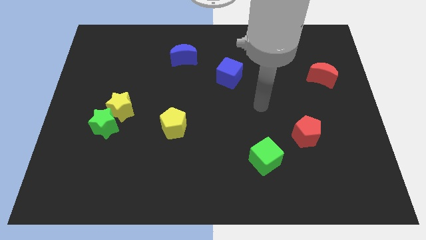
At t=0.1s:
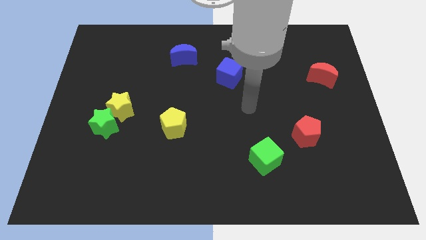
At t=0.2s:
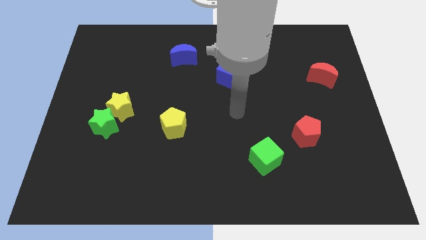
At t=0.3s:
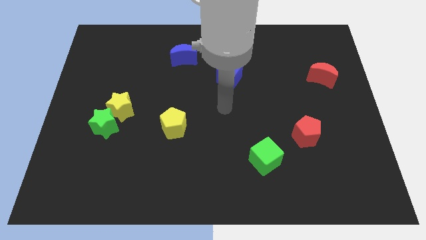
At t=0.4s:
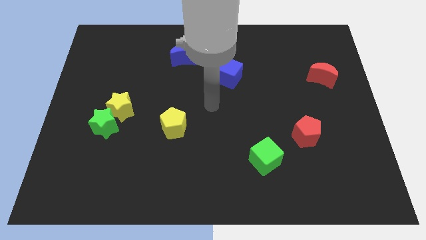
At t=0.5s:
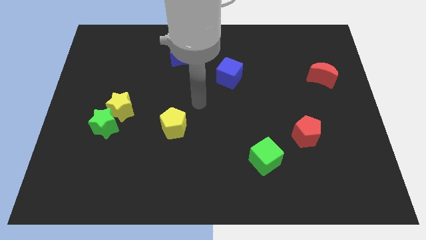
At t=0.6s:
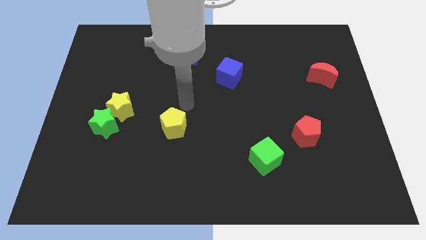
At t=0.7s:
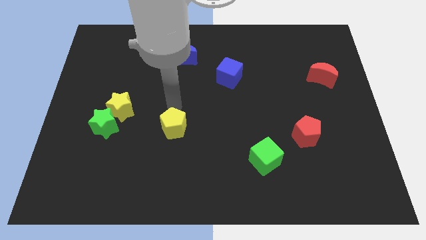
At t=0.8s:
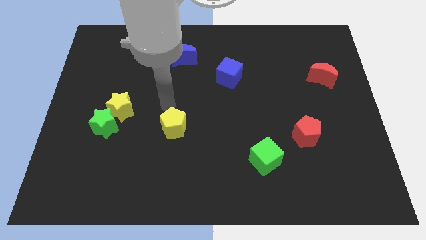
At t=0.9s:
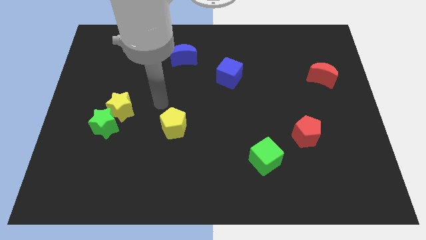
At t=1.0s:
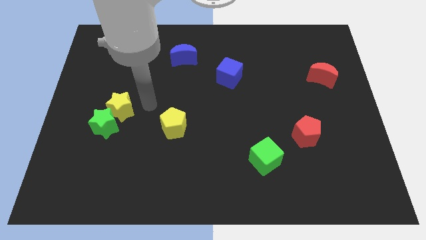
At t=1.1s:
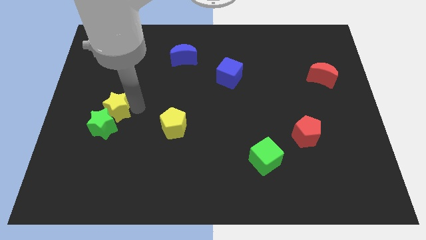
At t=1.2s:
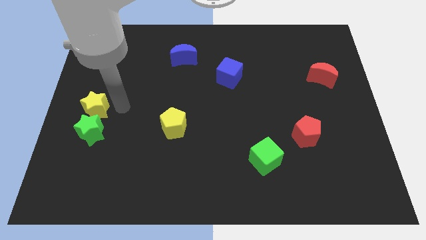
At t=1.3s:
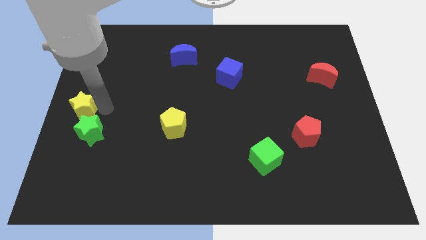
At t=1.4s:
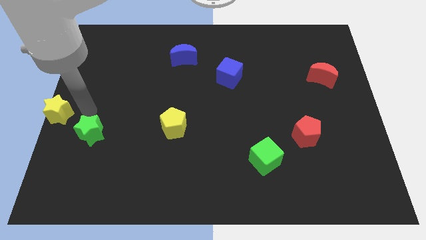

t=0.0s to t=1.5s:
pull the green star apart from the yellow star

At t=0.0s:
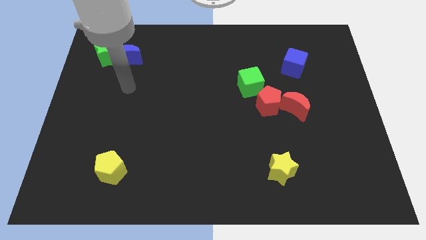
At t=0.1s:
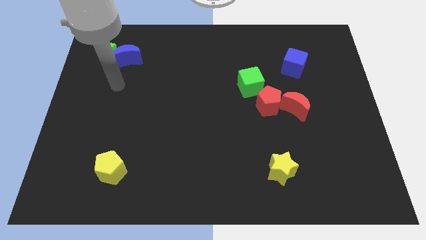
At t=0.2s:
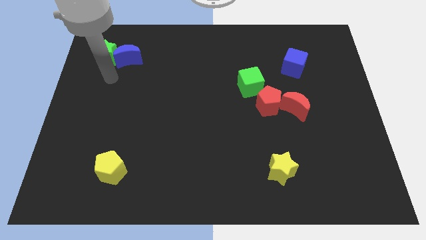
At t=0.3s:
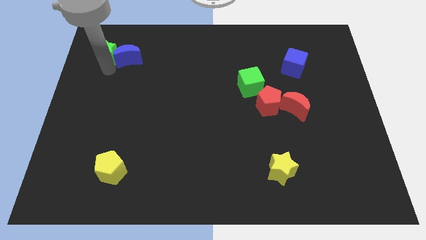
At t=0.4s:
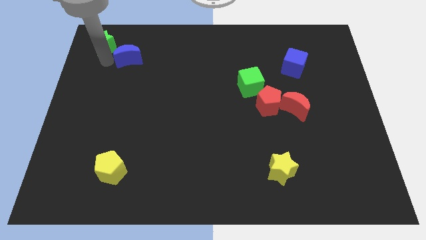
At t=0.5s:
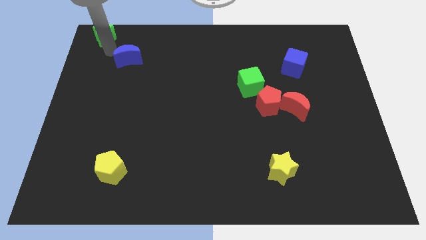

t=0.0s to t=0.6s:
pull the blue moon apart from the green star

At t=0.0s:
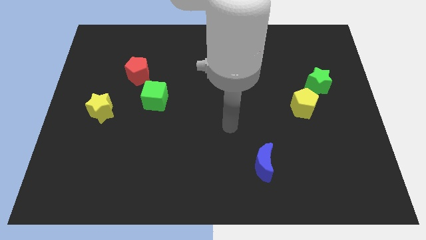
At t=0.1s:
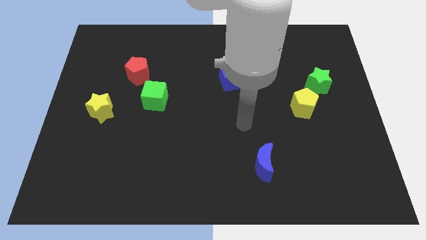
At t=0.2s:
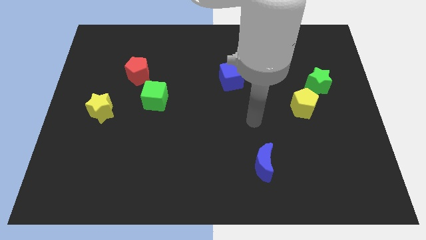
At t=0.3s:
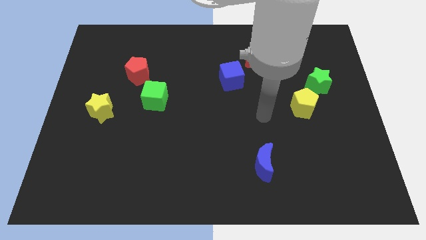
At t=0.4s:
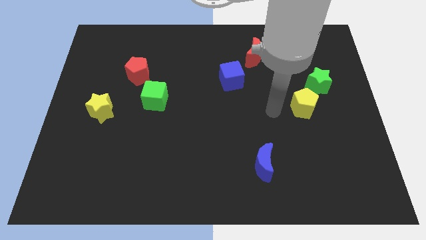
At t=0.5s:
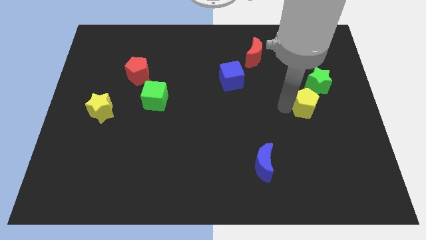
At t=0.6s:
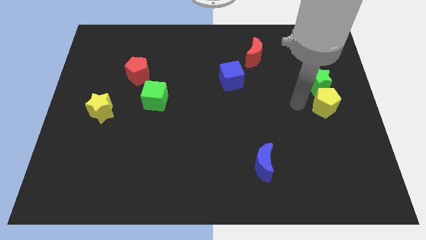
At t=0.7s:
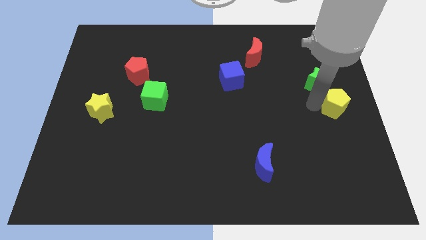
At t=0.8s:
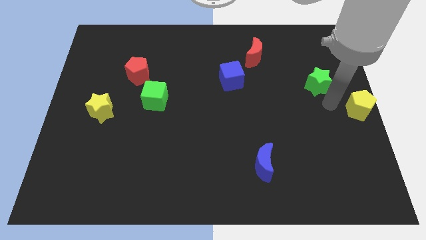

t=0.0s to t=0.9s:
separate the green star from the yellow pentagon

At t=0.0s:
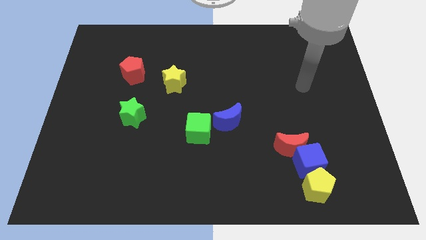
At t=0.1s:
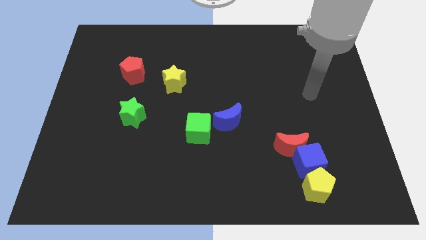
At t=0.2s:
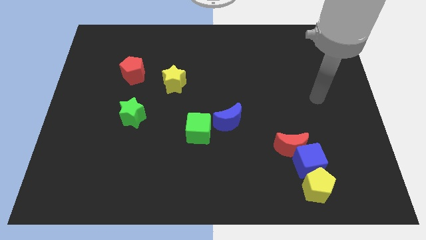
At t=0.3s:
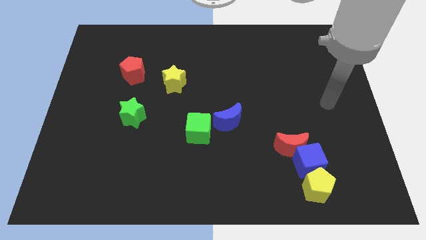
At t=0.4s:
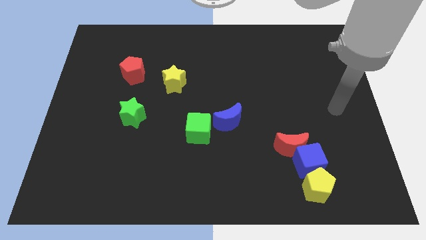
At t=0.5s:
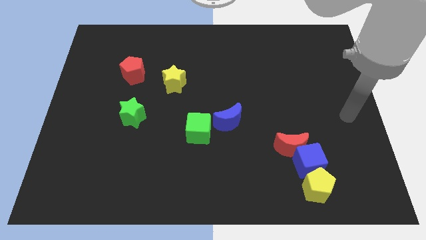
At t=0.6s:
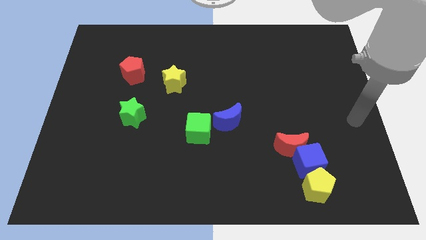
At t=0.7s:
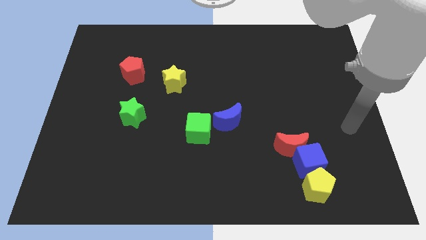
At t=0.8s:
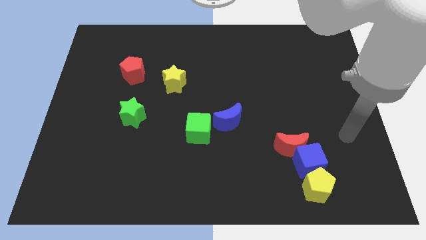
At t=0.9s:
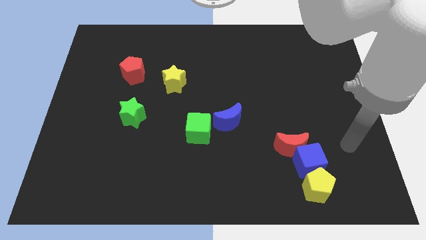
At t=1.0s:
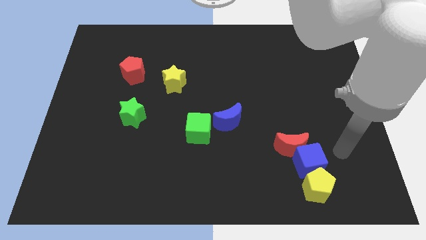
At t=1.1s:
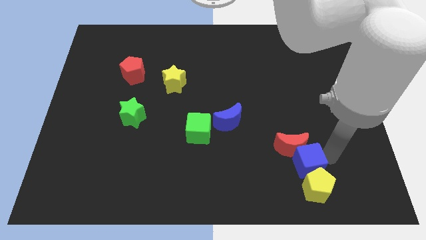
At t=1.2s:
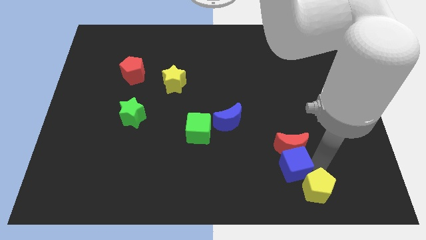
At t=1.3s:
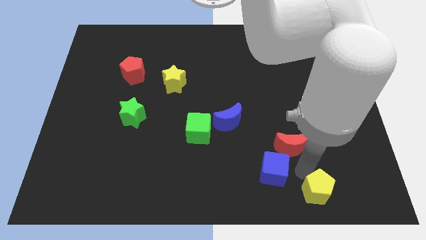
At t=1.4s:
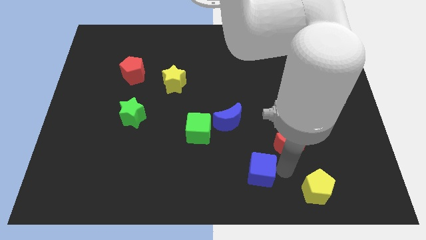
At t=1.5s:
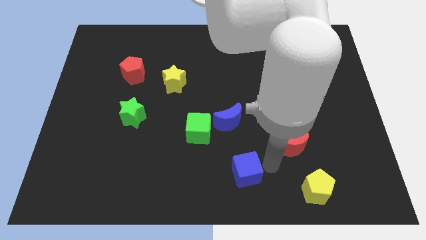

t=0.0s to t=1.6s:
move the red moon away from the blue cube

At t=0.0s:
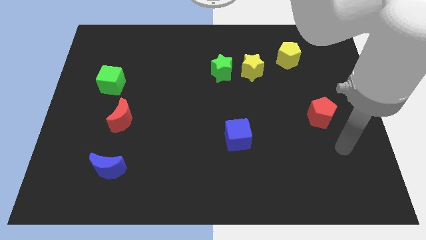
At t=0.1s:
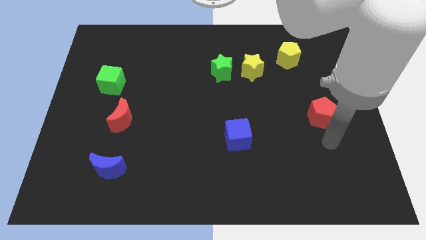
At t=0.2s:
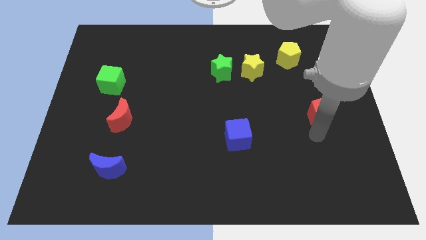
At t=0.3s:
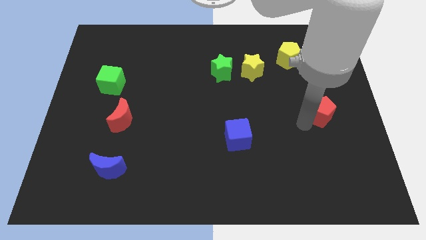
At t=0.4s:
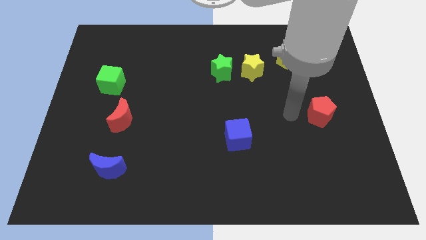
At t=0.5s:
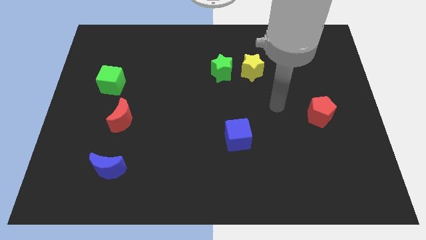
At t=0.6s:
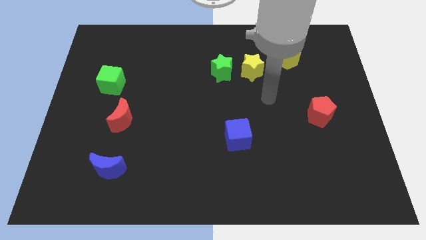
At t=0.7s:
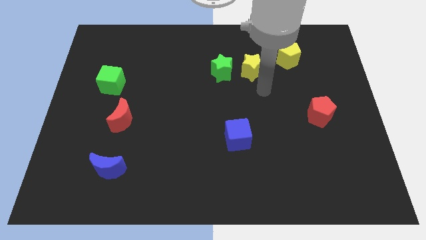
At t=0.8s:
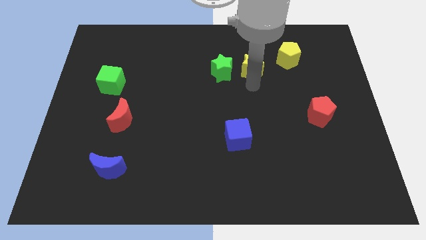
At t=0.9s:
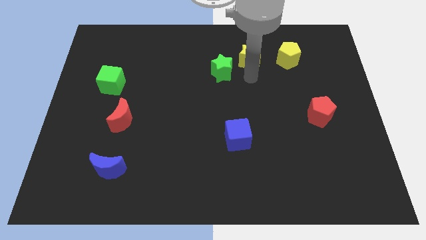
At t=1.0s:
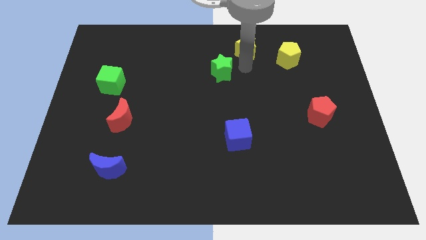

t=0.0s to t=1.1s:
separate the green star from the yellow star

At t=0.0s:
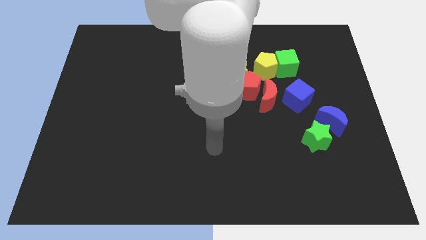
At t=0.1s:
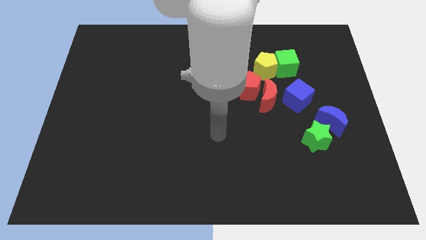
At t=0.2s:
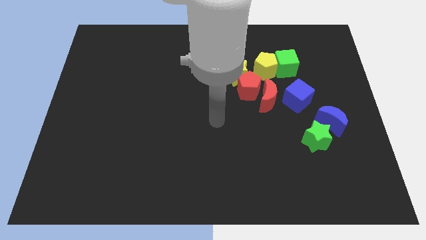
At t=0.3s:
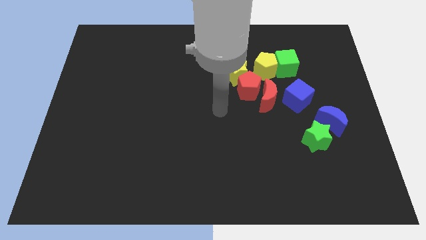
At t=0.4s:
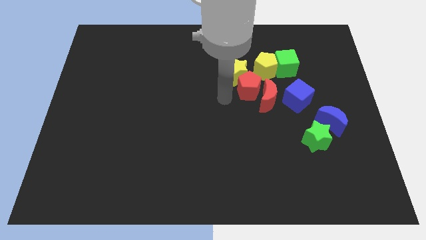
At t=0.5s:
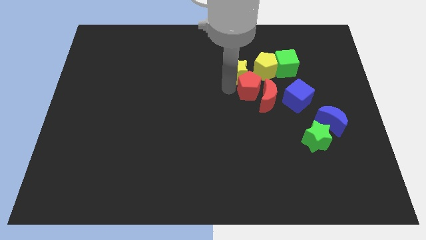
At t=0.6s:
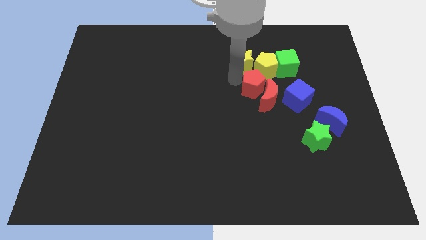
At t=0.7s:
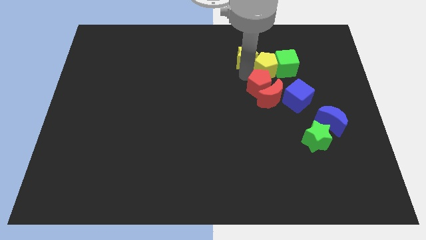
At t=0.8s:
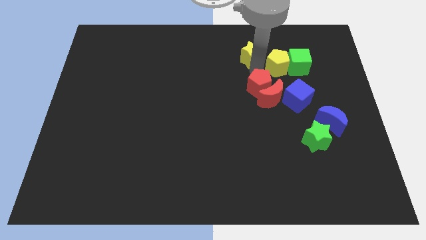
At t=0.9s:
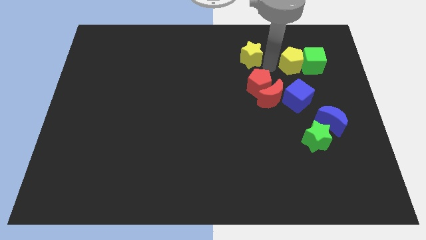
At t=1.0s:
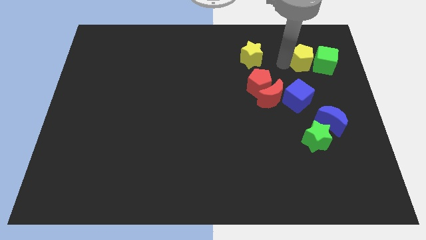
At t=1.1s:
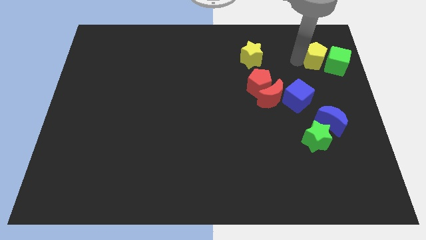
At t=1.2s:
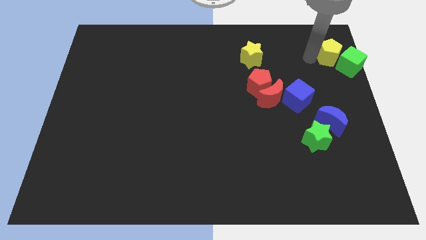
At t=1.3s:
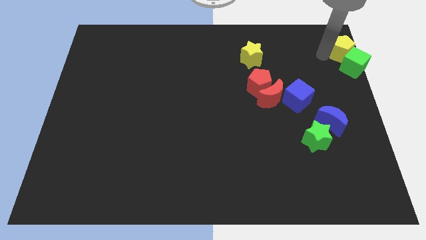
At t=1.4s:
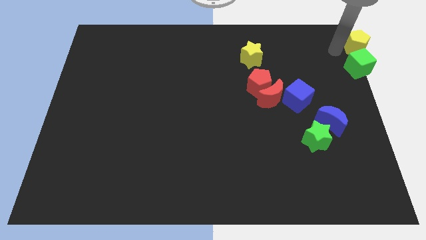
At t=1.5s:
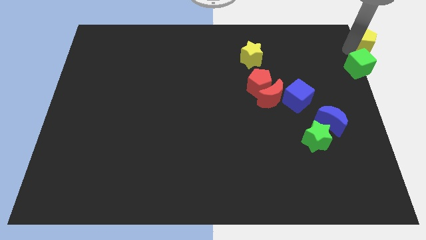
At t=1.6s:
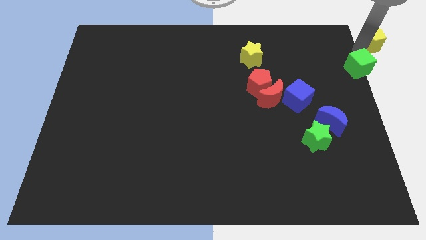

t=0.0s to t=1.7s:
pull the green cube apart from the yellow pentagon

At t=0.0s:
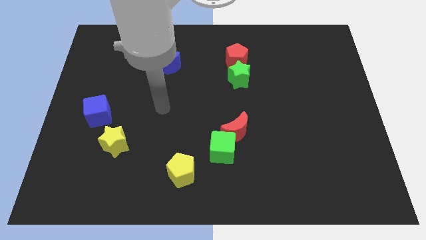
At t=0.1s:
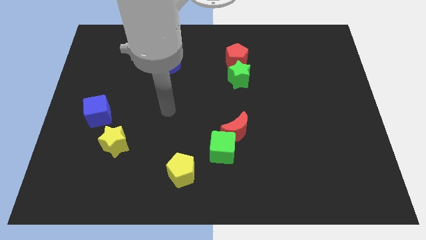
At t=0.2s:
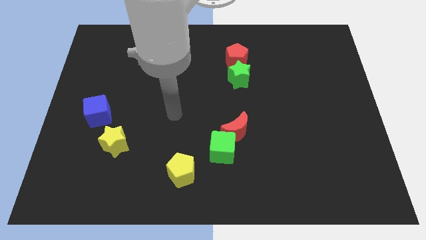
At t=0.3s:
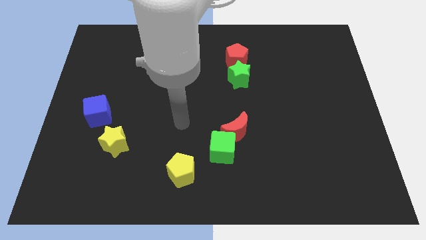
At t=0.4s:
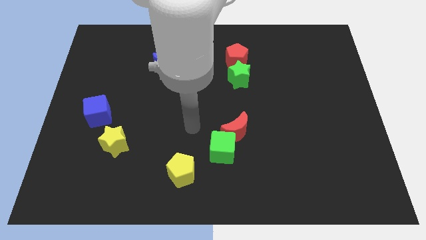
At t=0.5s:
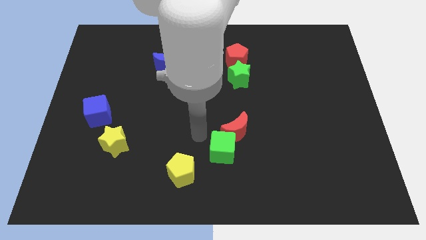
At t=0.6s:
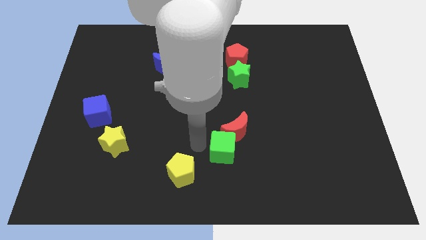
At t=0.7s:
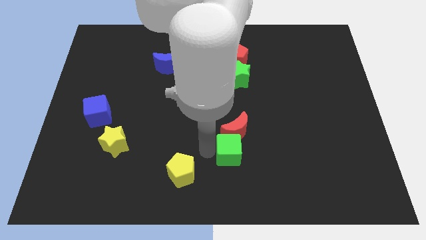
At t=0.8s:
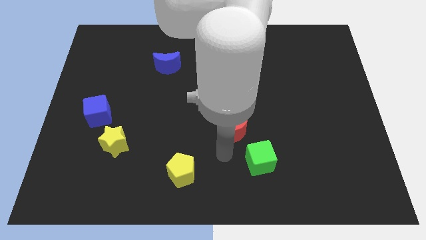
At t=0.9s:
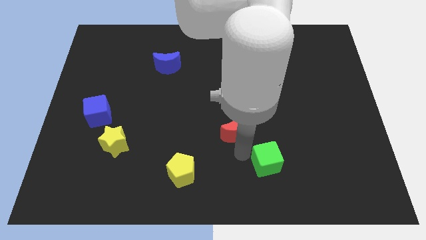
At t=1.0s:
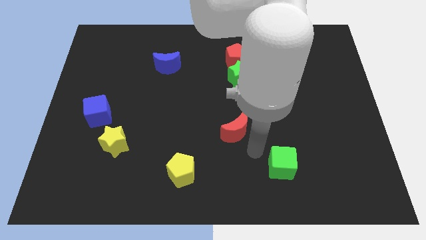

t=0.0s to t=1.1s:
move the red moon away from the green cube

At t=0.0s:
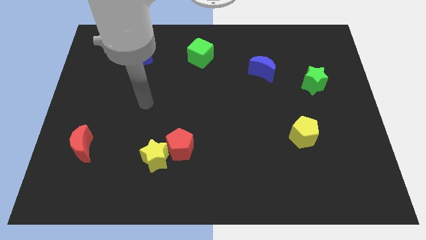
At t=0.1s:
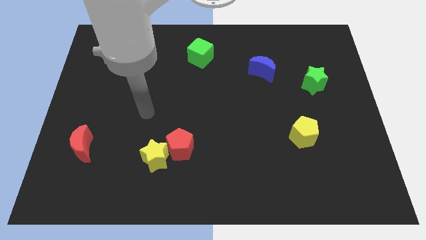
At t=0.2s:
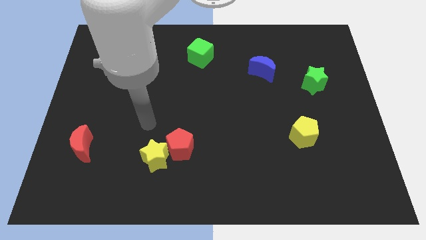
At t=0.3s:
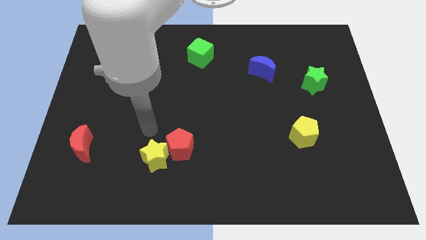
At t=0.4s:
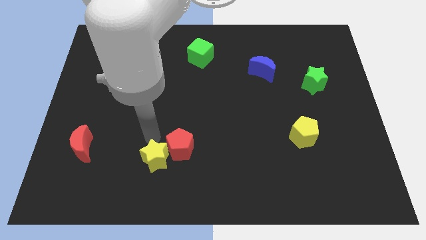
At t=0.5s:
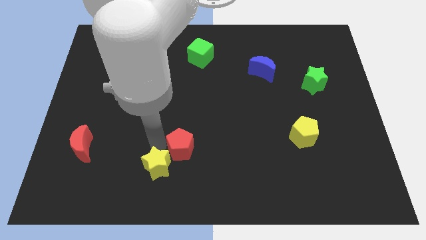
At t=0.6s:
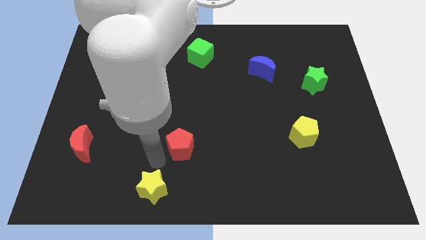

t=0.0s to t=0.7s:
pull the red pentagon apart from the yellow star

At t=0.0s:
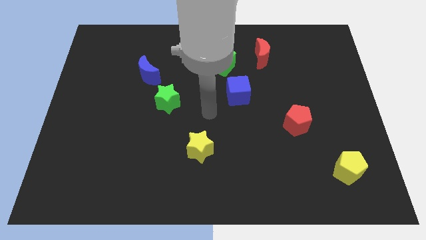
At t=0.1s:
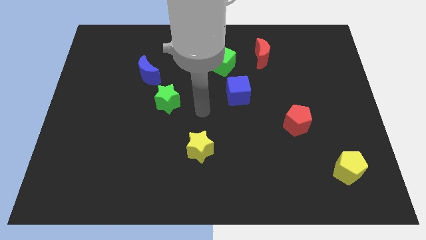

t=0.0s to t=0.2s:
move the blue moon away from the green star
